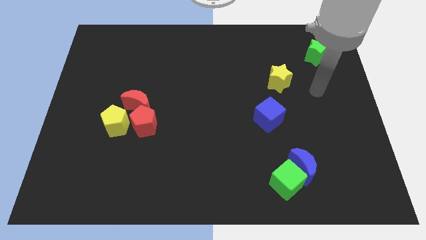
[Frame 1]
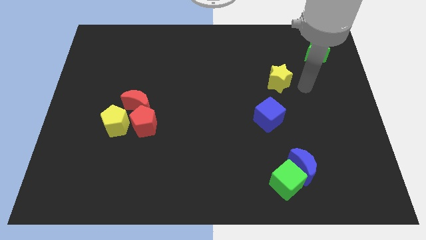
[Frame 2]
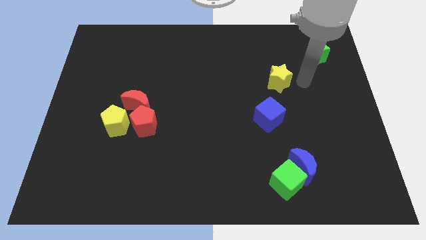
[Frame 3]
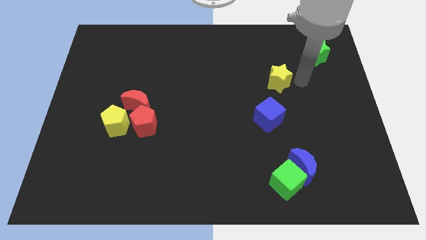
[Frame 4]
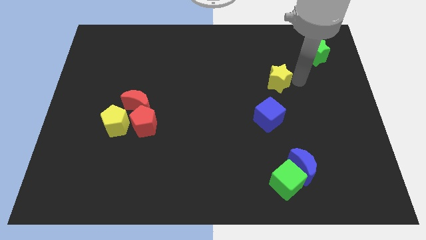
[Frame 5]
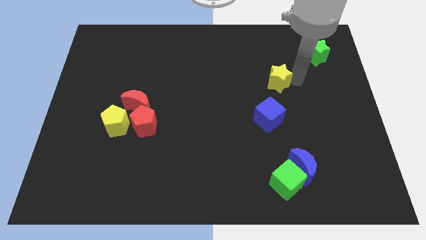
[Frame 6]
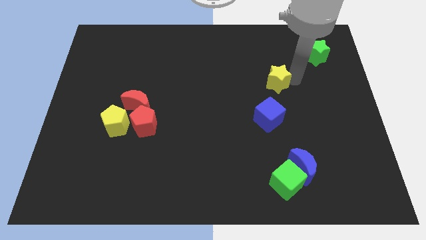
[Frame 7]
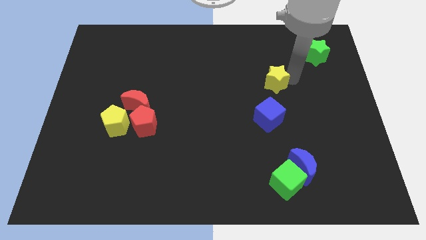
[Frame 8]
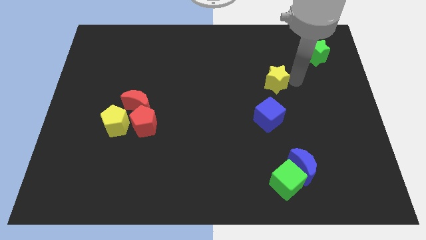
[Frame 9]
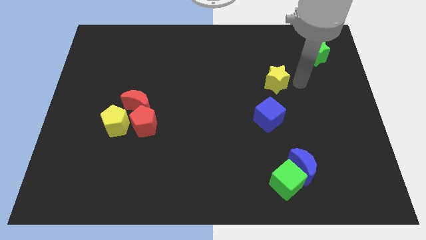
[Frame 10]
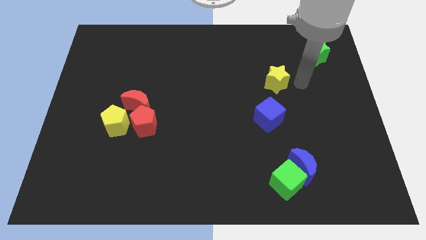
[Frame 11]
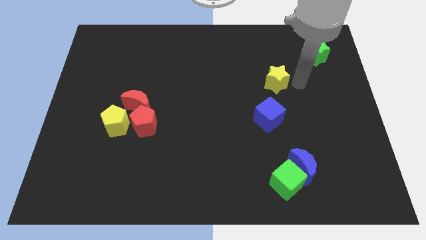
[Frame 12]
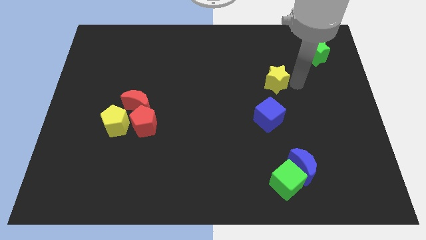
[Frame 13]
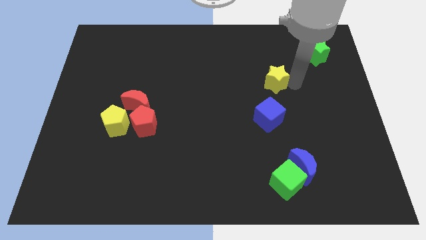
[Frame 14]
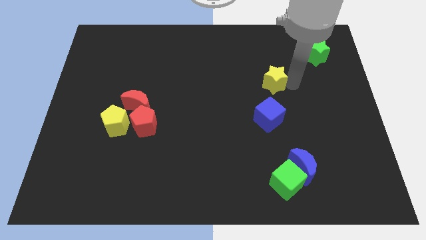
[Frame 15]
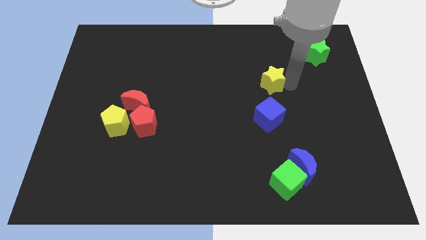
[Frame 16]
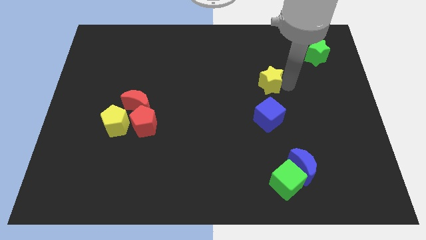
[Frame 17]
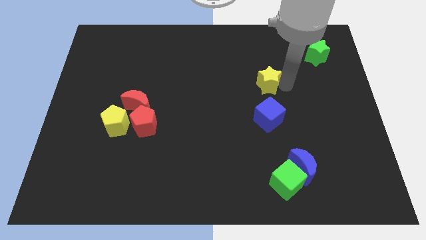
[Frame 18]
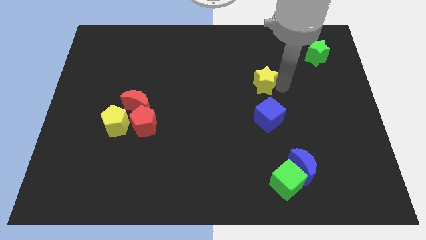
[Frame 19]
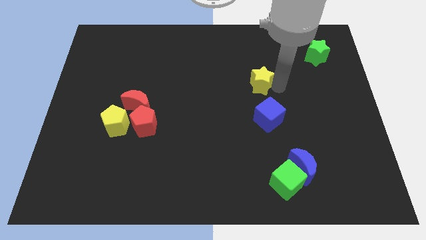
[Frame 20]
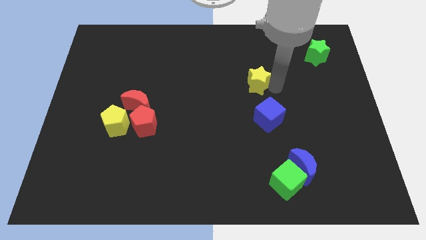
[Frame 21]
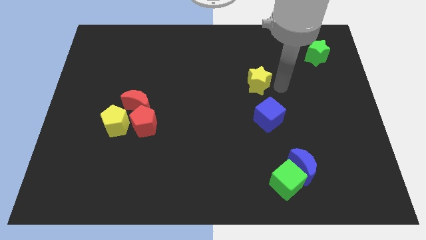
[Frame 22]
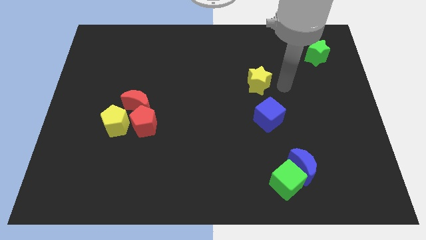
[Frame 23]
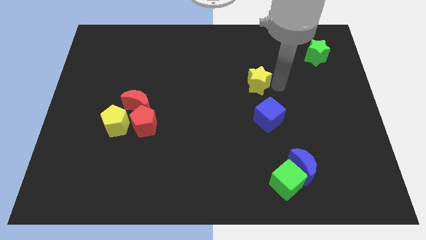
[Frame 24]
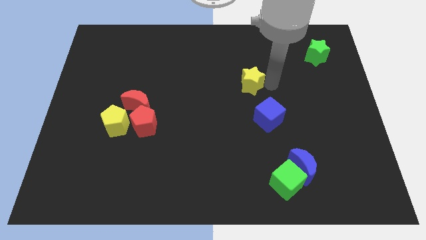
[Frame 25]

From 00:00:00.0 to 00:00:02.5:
slide the yellow star left slightly

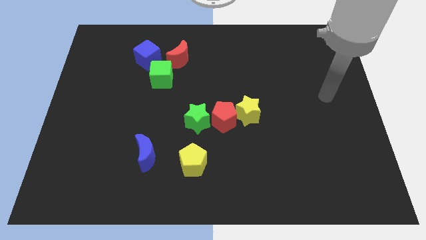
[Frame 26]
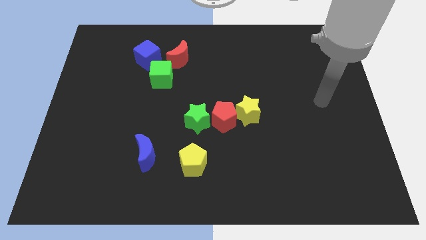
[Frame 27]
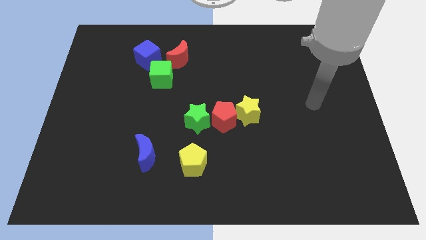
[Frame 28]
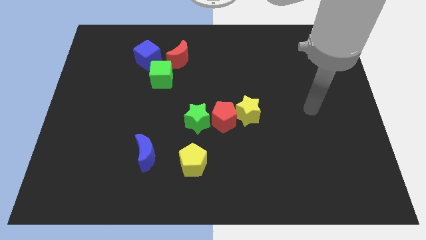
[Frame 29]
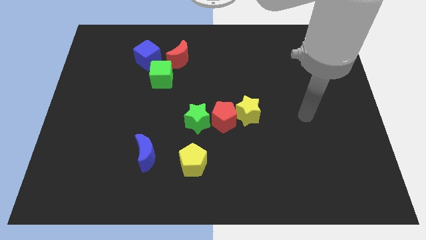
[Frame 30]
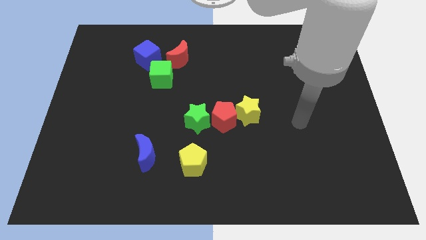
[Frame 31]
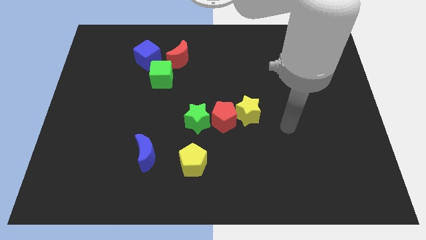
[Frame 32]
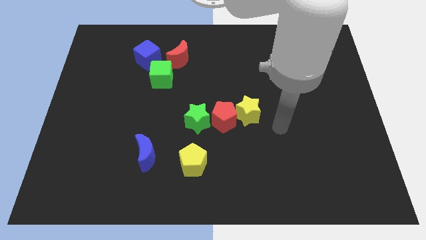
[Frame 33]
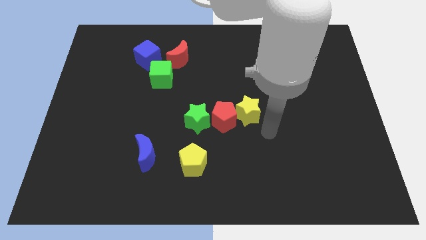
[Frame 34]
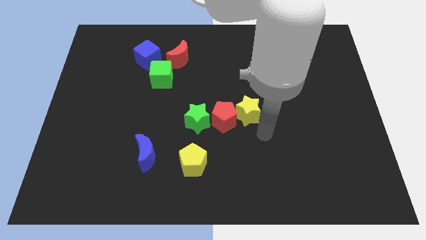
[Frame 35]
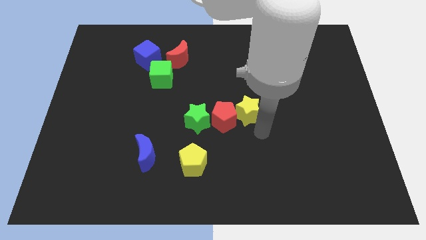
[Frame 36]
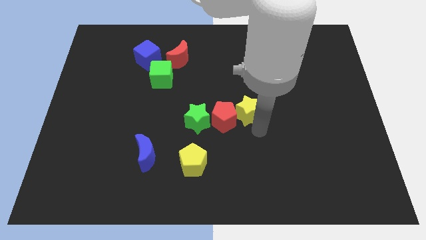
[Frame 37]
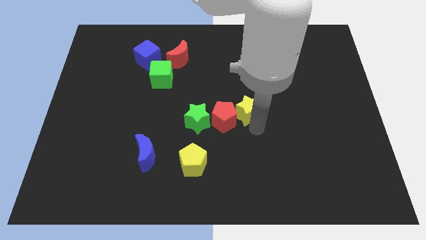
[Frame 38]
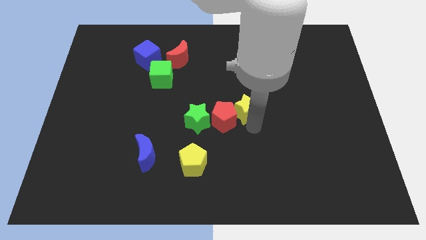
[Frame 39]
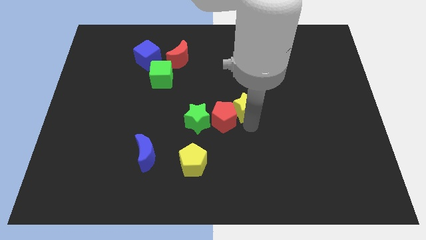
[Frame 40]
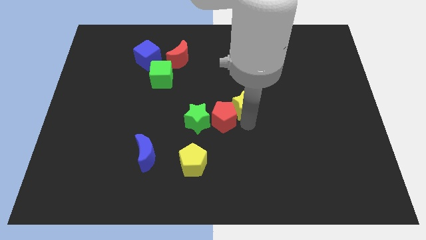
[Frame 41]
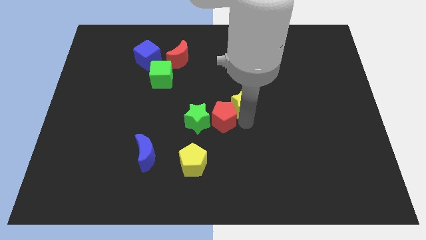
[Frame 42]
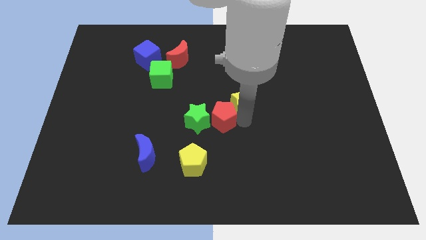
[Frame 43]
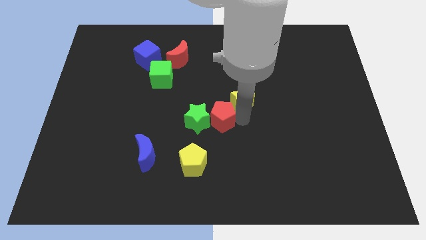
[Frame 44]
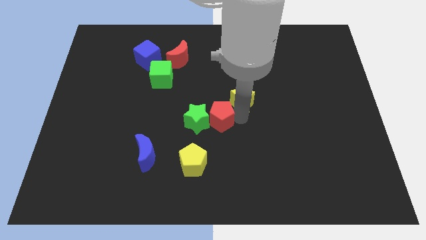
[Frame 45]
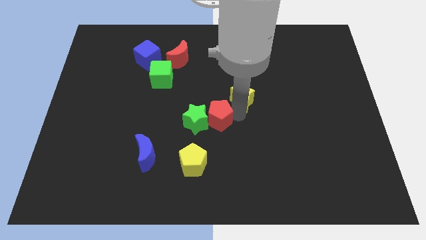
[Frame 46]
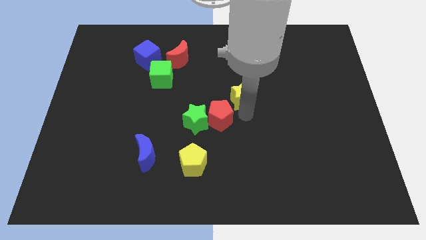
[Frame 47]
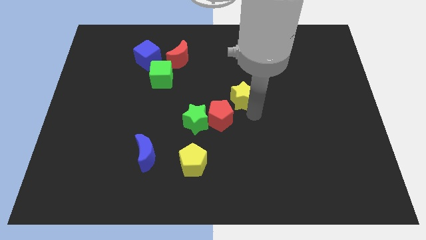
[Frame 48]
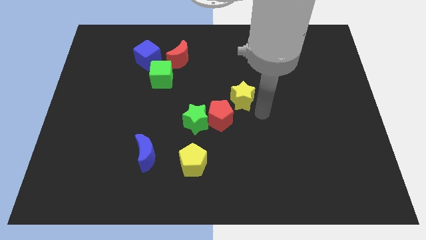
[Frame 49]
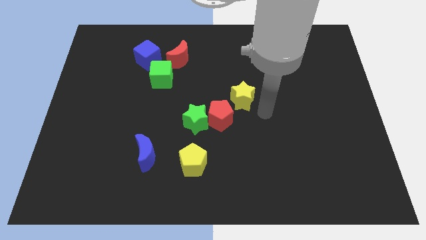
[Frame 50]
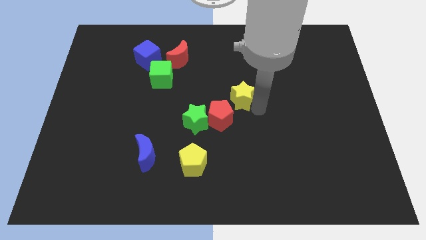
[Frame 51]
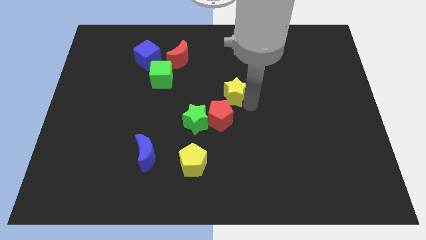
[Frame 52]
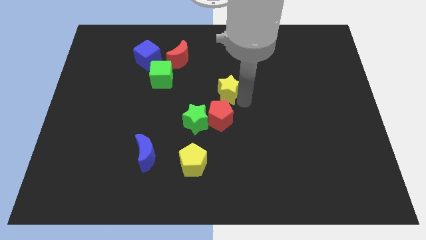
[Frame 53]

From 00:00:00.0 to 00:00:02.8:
slightly move the yellow star upwards and left

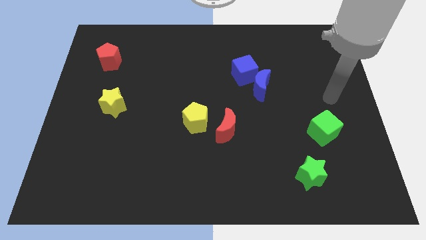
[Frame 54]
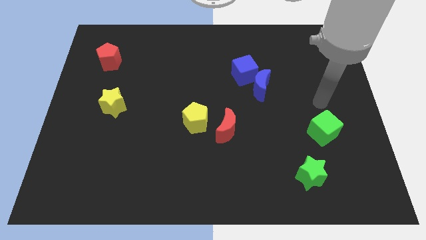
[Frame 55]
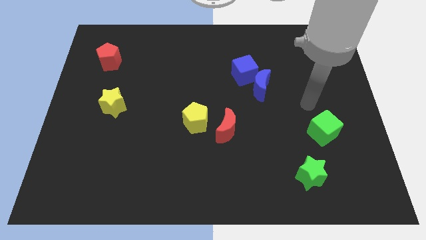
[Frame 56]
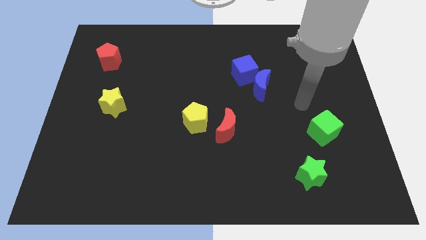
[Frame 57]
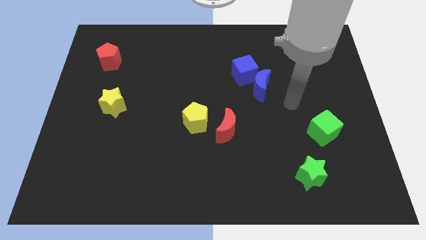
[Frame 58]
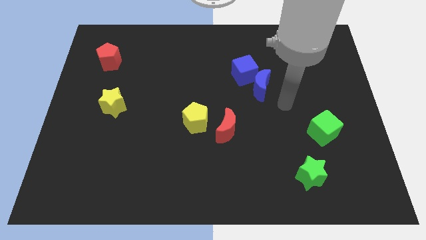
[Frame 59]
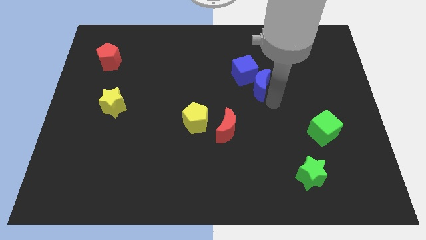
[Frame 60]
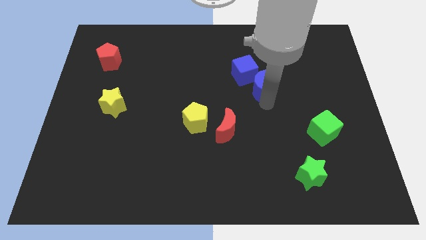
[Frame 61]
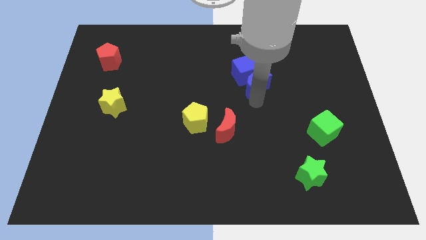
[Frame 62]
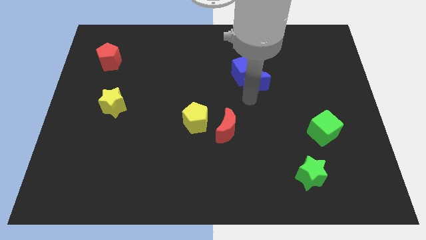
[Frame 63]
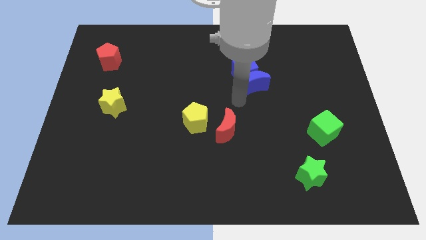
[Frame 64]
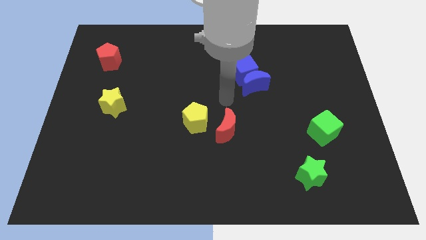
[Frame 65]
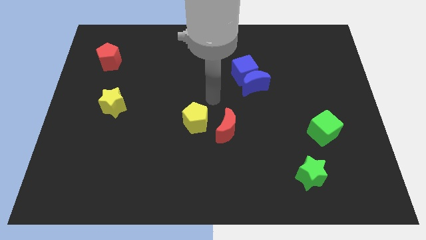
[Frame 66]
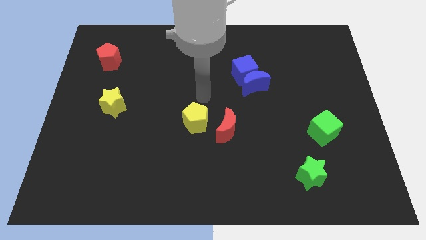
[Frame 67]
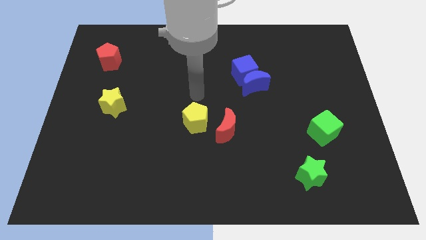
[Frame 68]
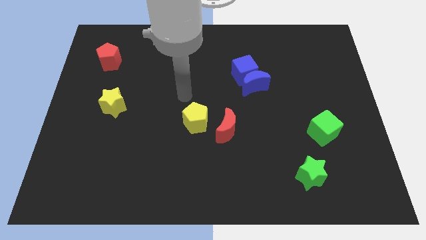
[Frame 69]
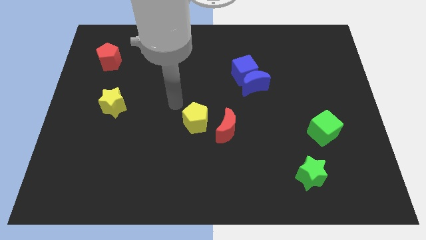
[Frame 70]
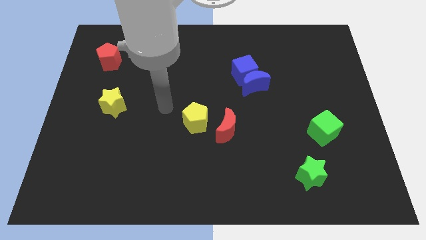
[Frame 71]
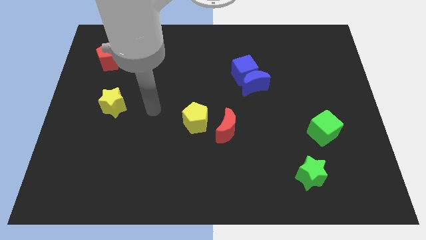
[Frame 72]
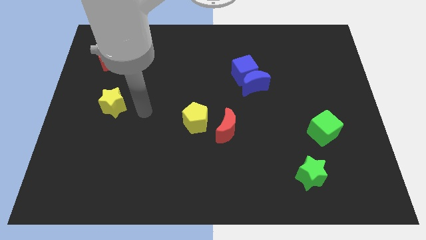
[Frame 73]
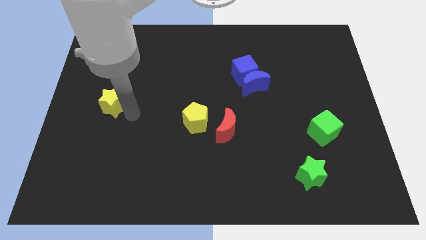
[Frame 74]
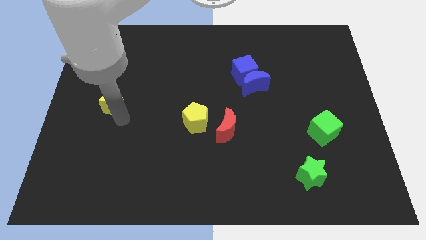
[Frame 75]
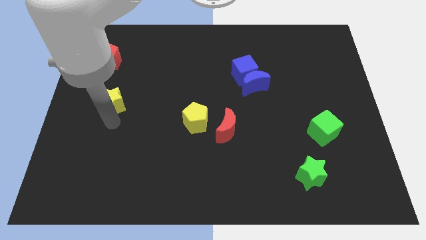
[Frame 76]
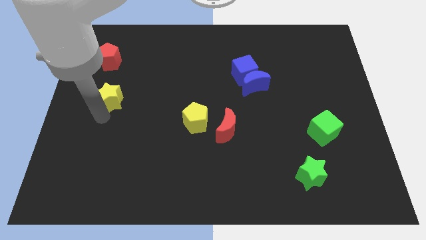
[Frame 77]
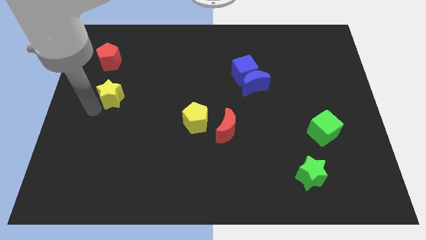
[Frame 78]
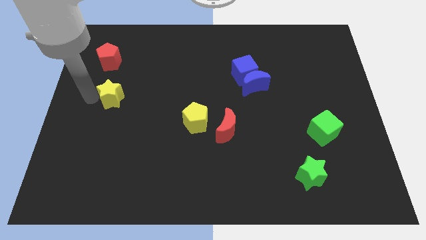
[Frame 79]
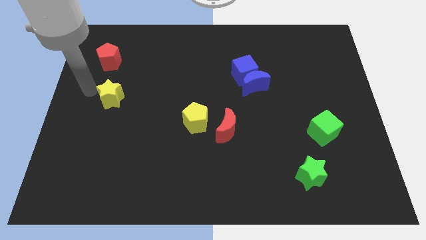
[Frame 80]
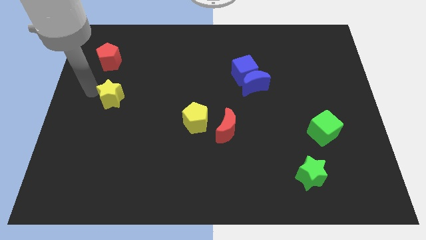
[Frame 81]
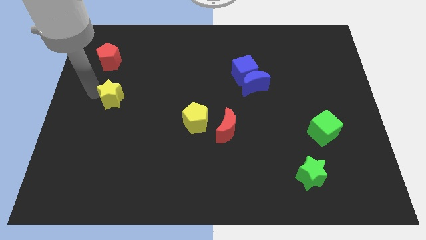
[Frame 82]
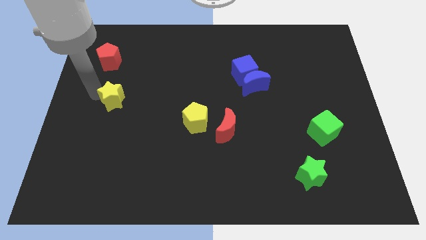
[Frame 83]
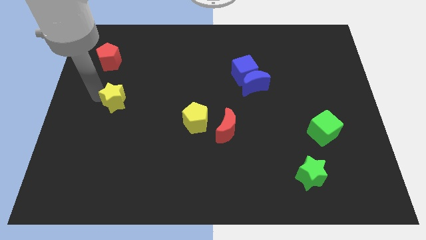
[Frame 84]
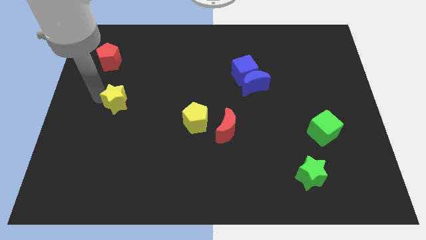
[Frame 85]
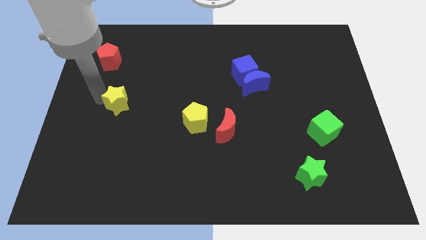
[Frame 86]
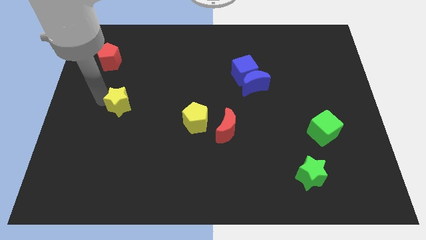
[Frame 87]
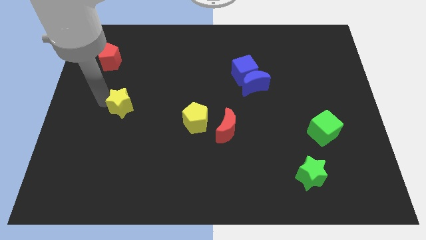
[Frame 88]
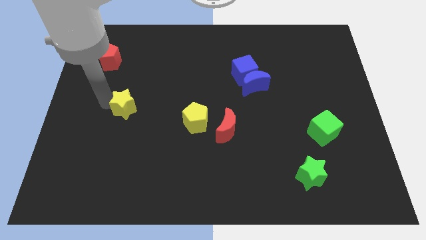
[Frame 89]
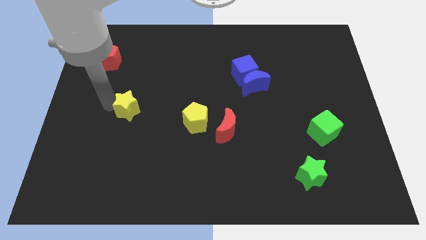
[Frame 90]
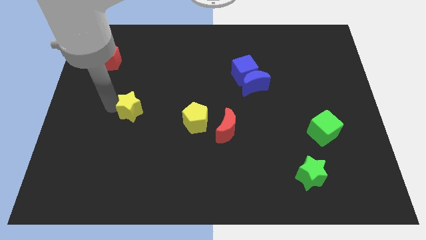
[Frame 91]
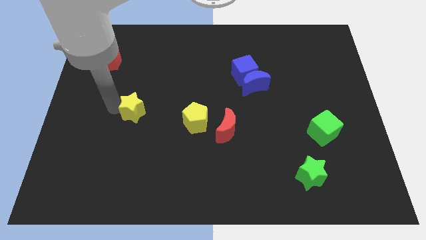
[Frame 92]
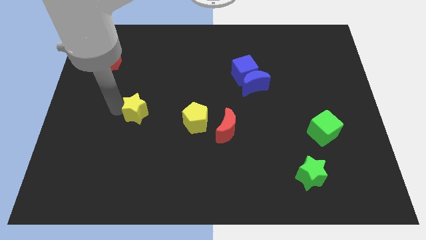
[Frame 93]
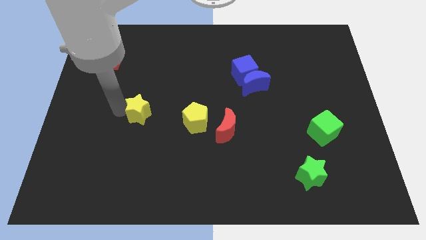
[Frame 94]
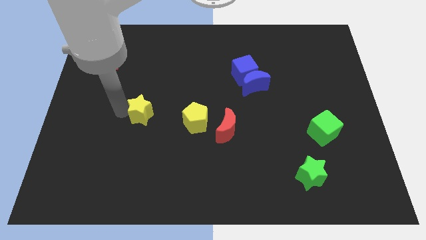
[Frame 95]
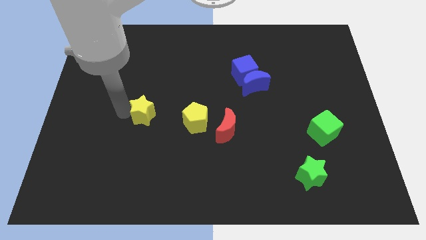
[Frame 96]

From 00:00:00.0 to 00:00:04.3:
push the yellow star a bit to the right
